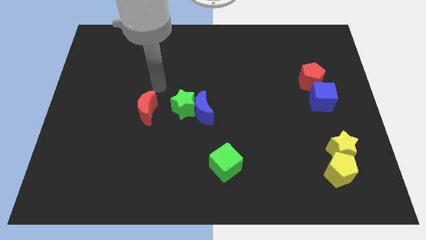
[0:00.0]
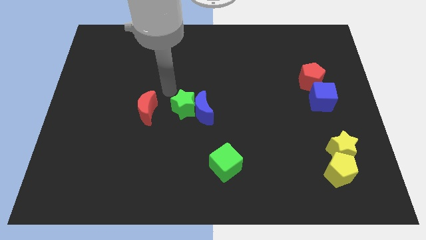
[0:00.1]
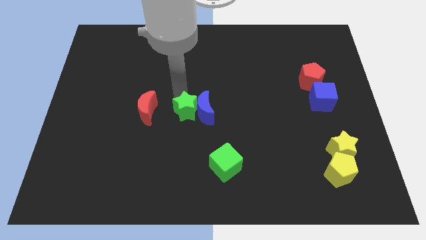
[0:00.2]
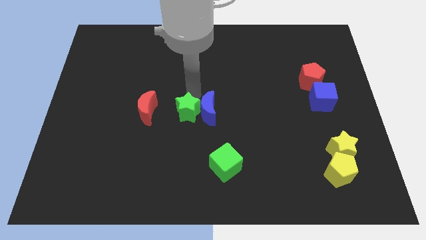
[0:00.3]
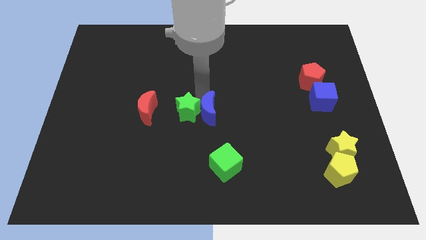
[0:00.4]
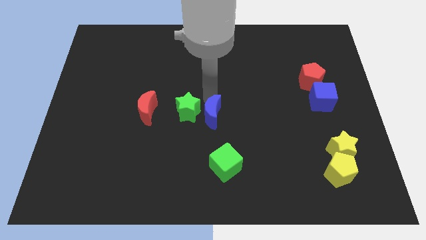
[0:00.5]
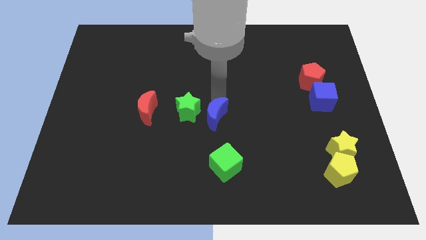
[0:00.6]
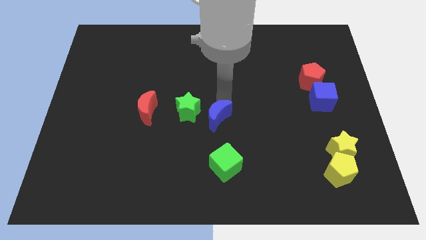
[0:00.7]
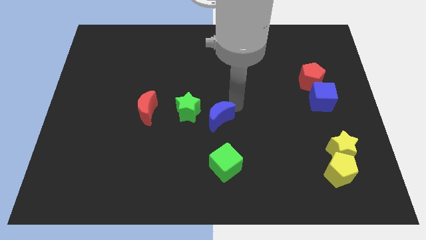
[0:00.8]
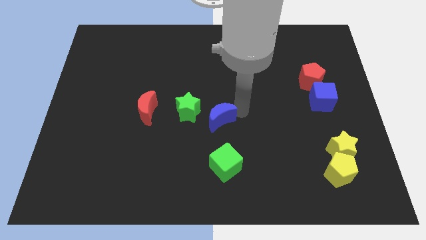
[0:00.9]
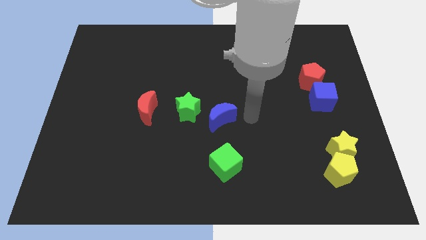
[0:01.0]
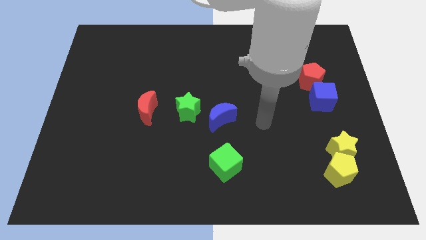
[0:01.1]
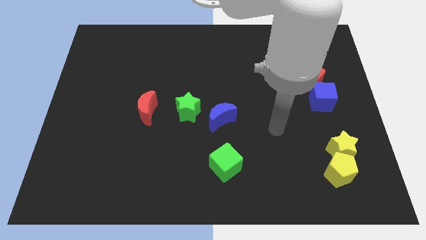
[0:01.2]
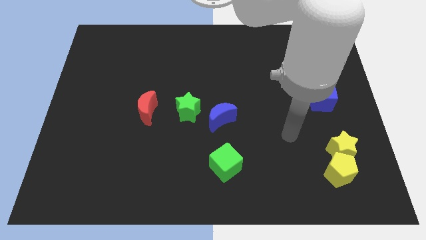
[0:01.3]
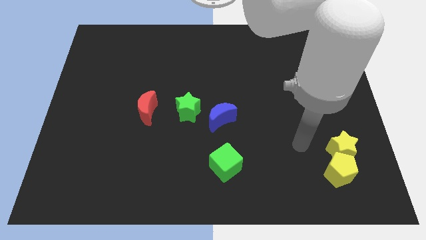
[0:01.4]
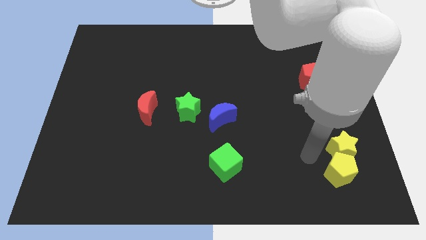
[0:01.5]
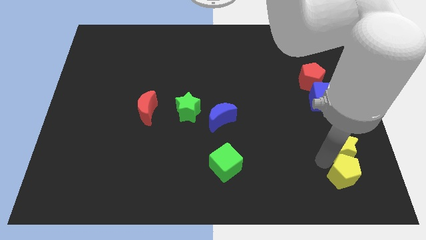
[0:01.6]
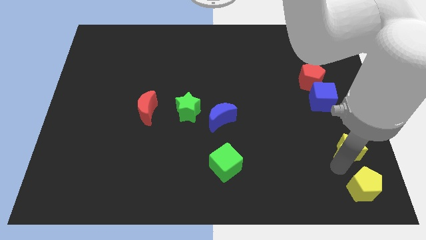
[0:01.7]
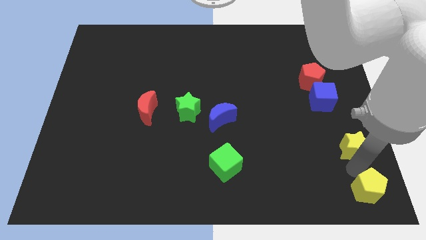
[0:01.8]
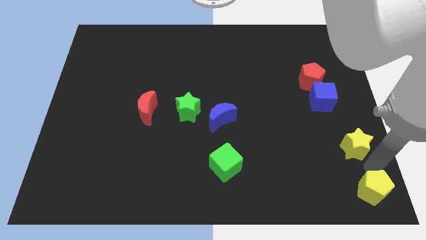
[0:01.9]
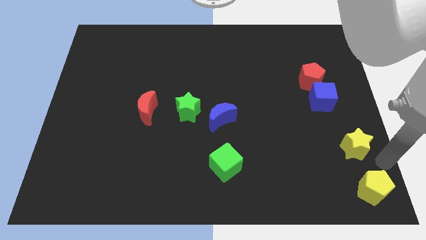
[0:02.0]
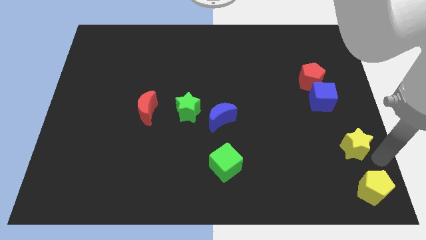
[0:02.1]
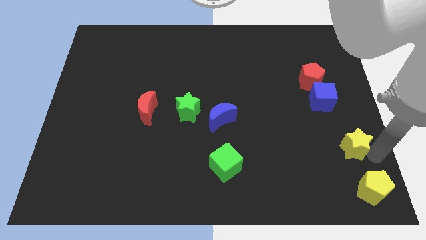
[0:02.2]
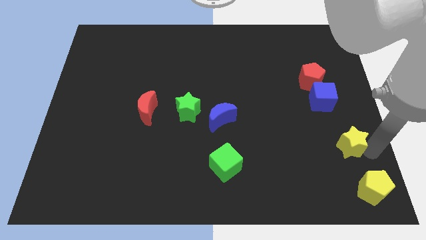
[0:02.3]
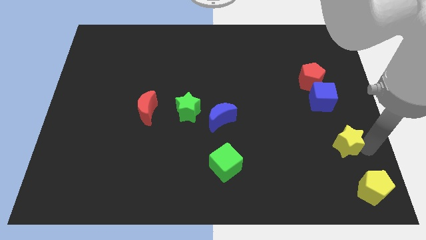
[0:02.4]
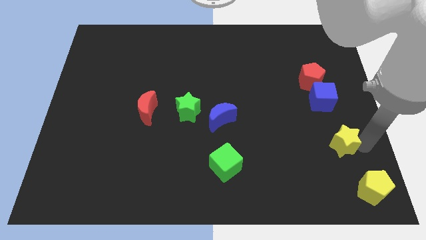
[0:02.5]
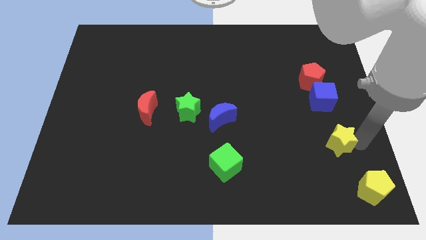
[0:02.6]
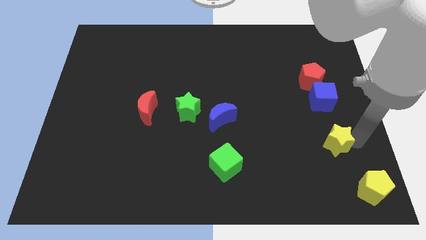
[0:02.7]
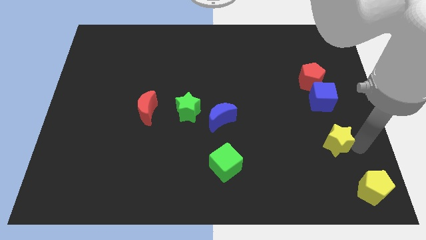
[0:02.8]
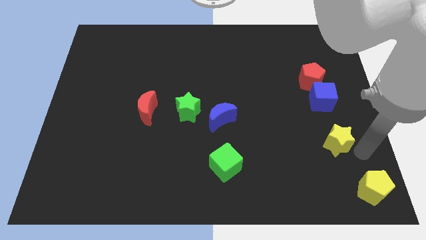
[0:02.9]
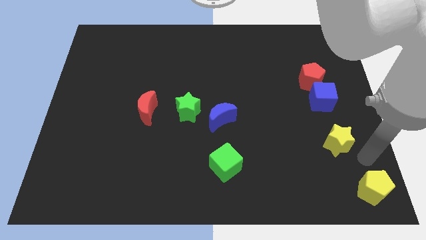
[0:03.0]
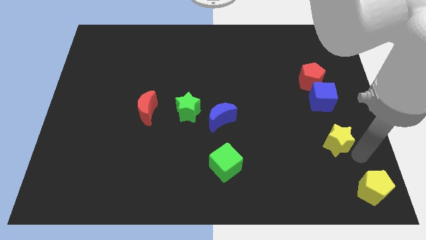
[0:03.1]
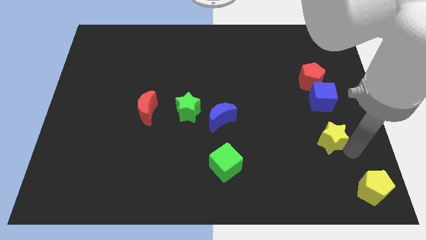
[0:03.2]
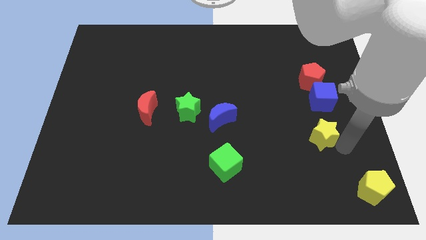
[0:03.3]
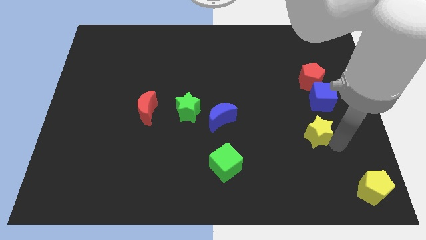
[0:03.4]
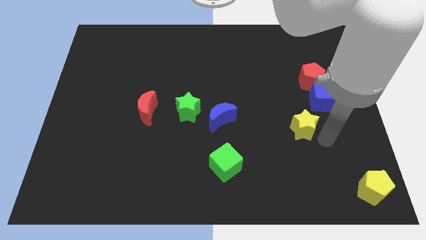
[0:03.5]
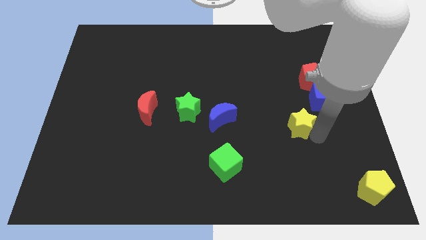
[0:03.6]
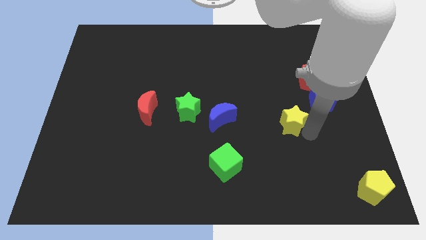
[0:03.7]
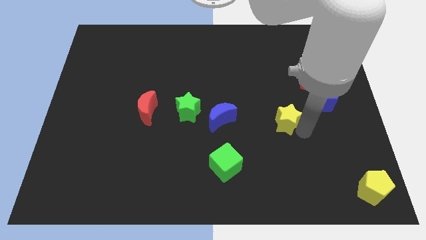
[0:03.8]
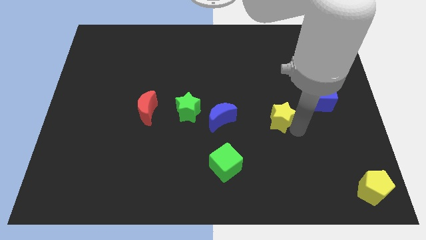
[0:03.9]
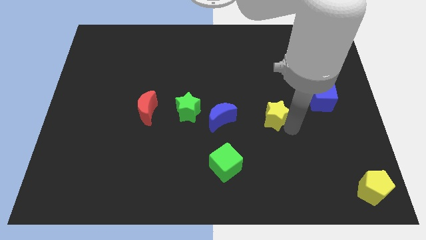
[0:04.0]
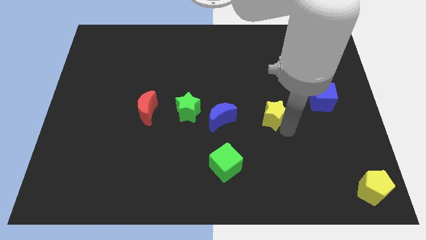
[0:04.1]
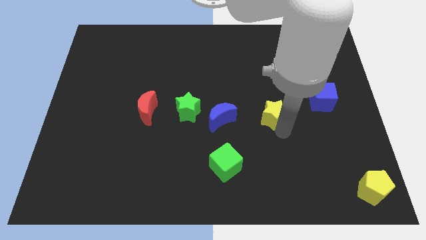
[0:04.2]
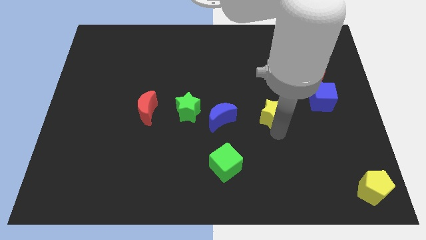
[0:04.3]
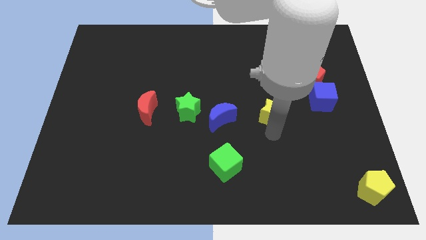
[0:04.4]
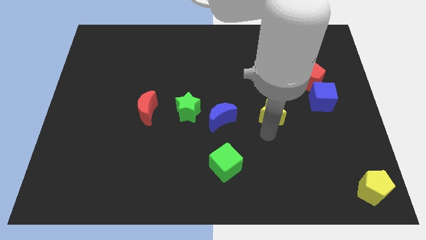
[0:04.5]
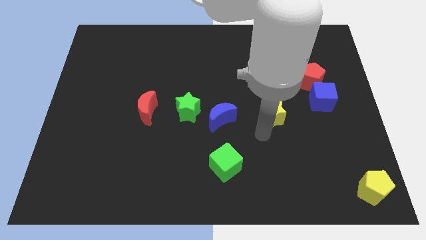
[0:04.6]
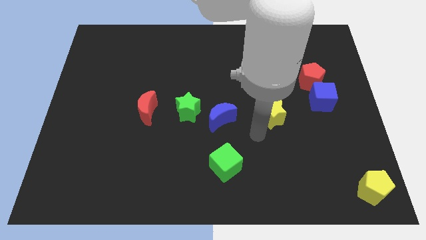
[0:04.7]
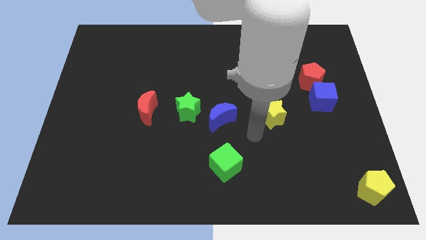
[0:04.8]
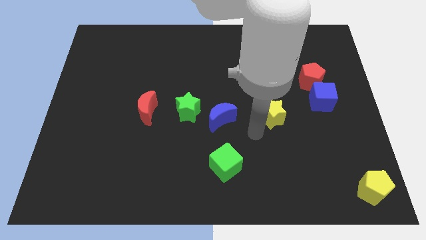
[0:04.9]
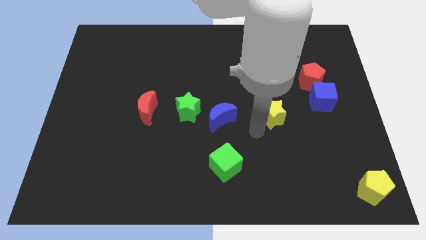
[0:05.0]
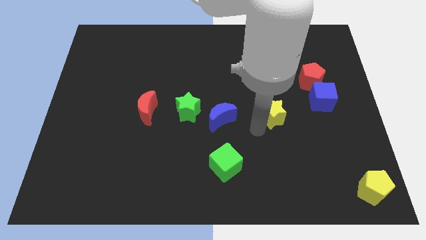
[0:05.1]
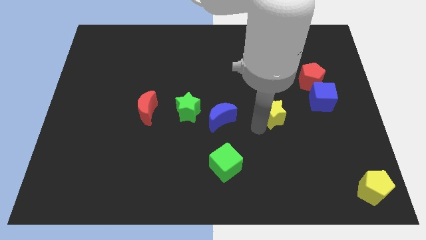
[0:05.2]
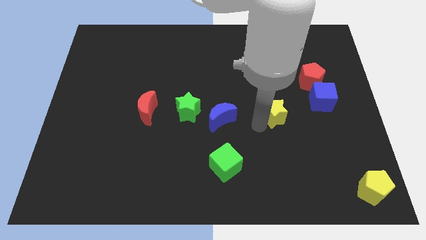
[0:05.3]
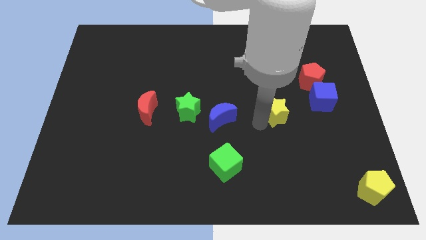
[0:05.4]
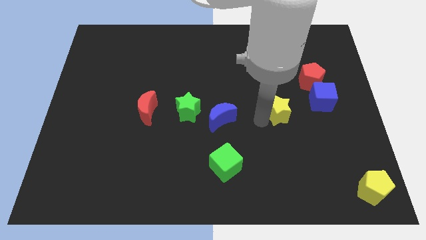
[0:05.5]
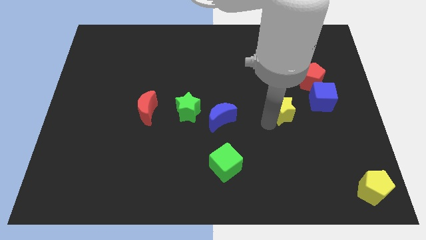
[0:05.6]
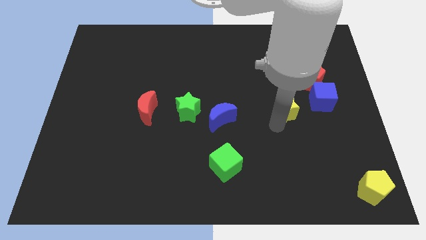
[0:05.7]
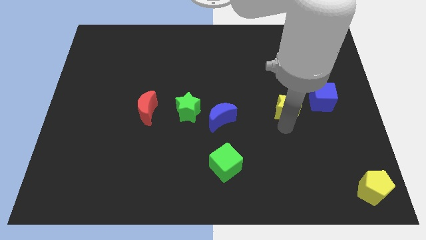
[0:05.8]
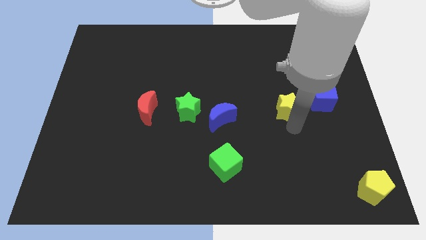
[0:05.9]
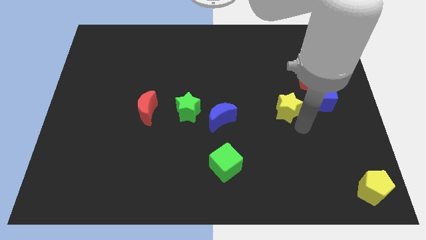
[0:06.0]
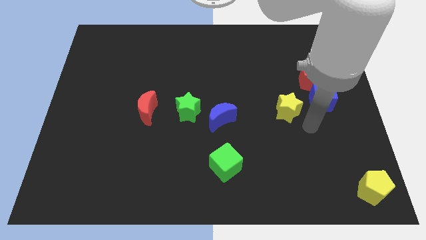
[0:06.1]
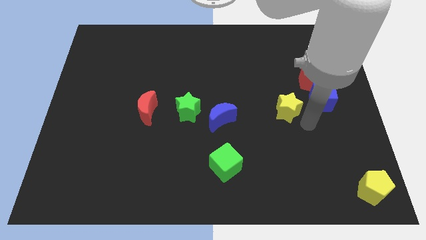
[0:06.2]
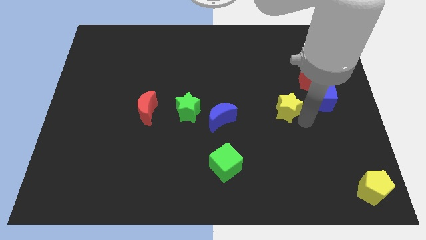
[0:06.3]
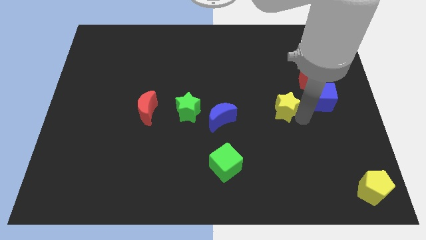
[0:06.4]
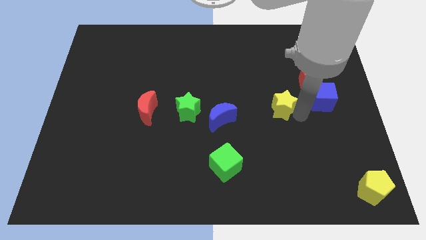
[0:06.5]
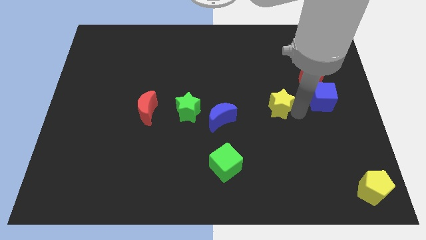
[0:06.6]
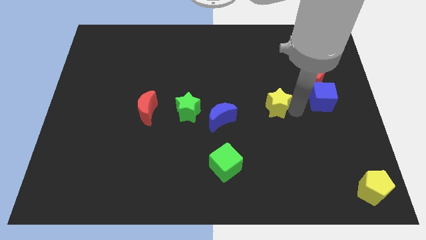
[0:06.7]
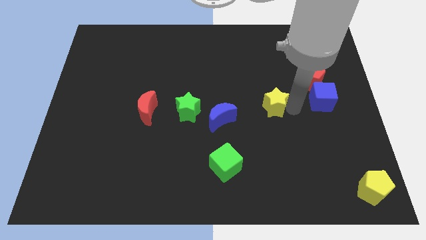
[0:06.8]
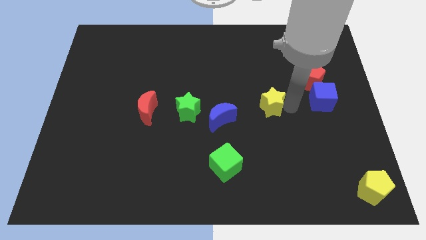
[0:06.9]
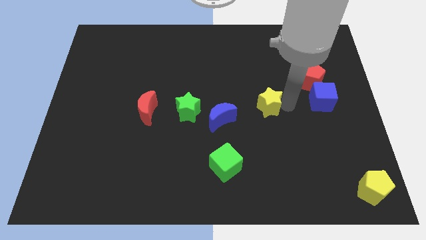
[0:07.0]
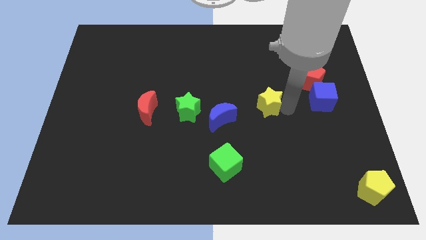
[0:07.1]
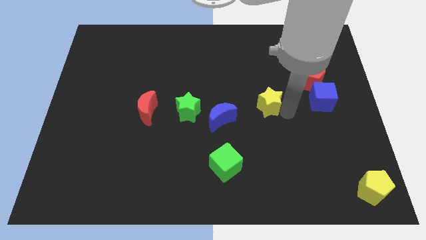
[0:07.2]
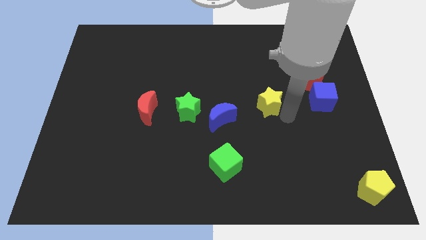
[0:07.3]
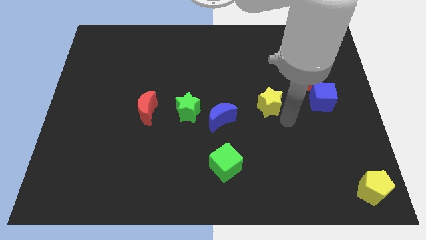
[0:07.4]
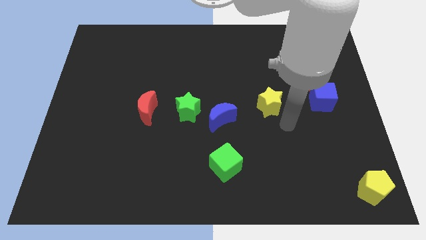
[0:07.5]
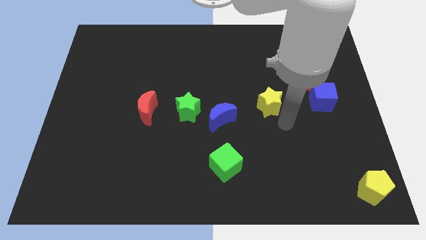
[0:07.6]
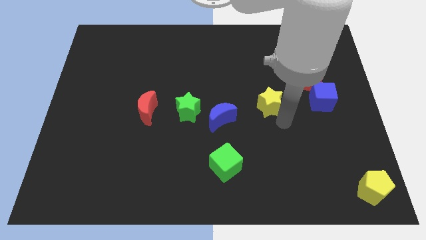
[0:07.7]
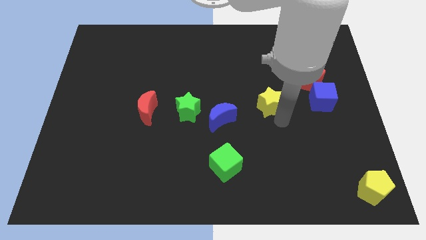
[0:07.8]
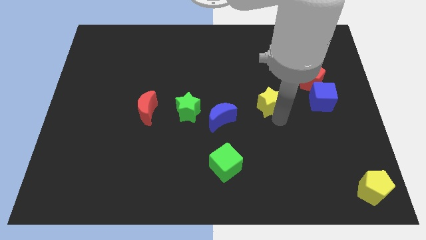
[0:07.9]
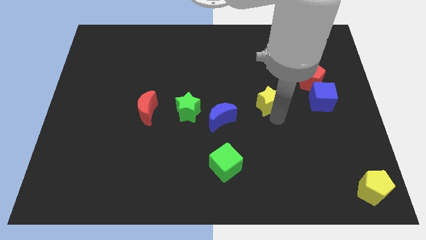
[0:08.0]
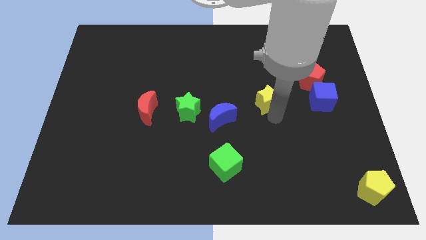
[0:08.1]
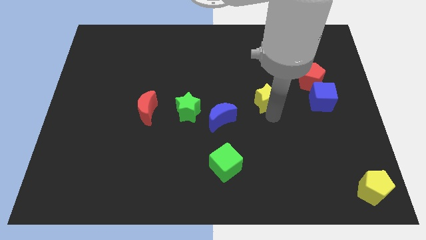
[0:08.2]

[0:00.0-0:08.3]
slide the yellow star up and left
